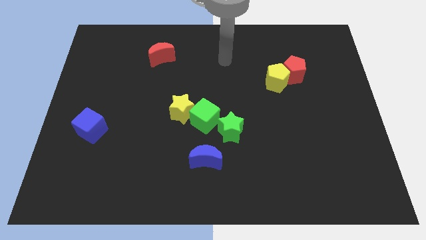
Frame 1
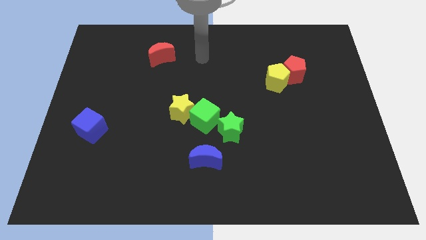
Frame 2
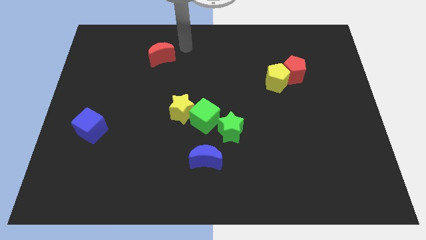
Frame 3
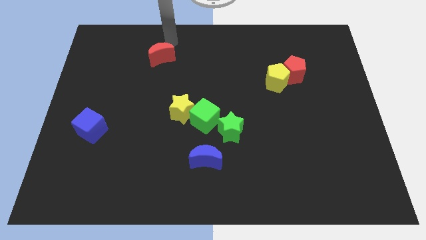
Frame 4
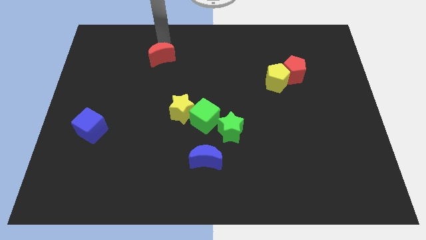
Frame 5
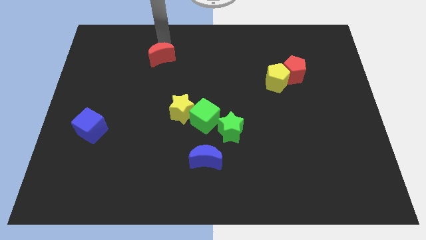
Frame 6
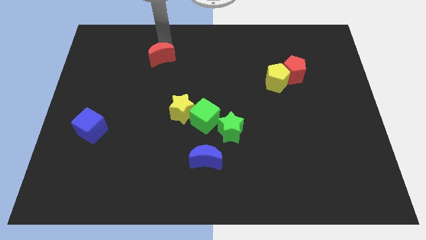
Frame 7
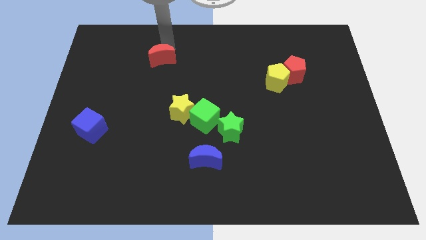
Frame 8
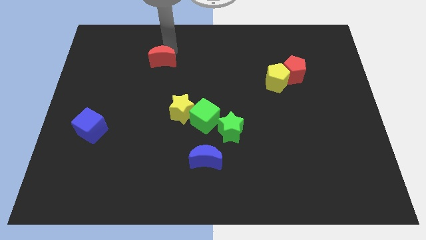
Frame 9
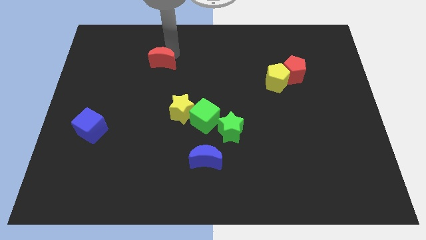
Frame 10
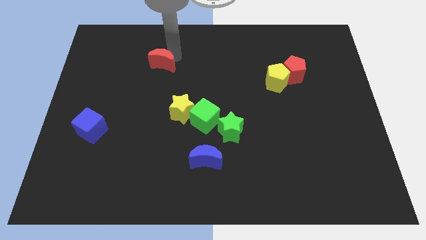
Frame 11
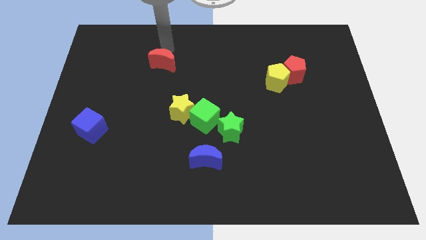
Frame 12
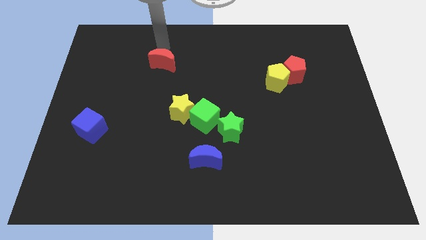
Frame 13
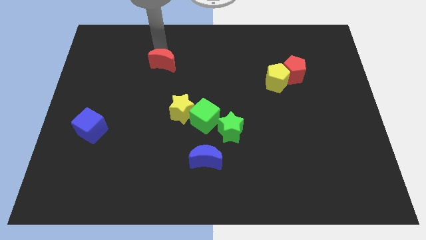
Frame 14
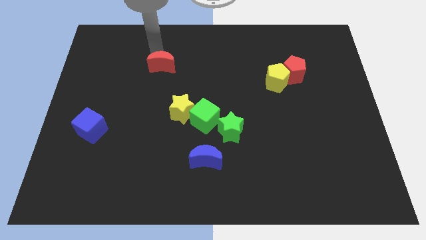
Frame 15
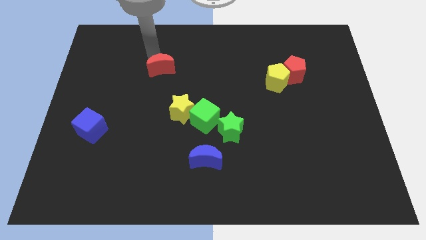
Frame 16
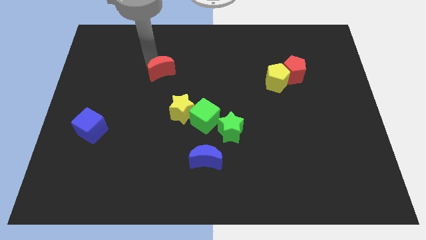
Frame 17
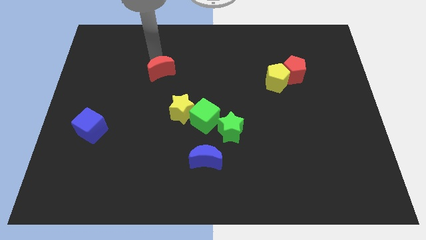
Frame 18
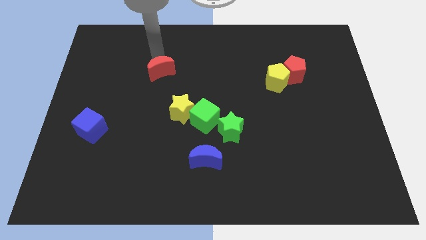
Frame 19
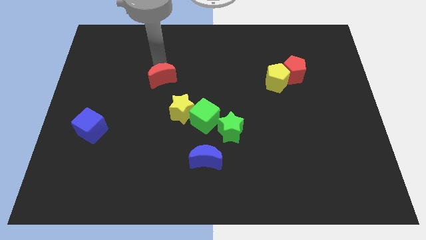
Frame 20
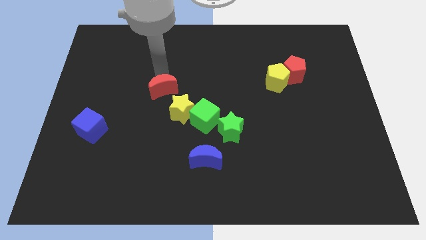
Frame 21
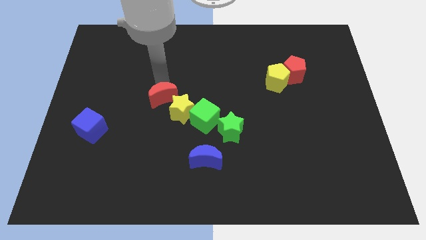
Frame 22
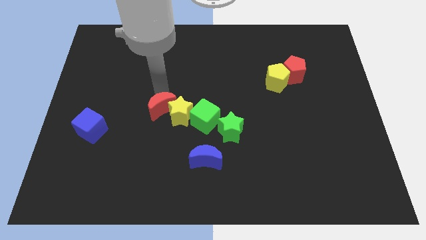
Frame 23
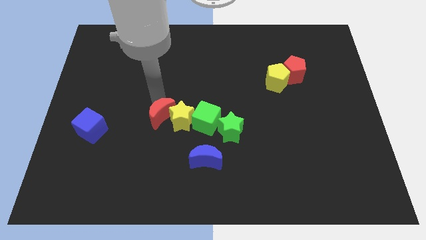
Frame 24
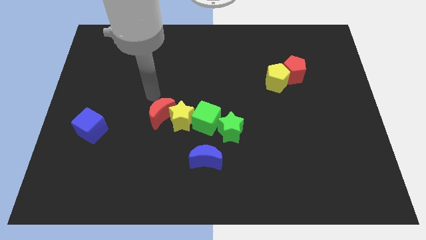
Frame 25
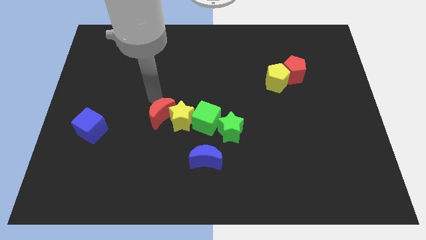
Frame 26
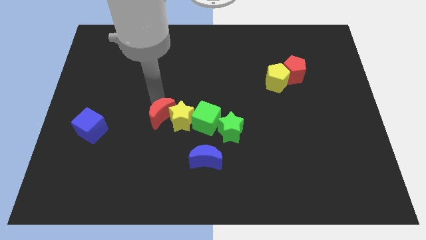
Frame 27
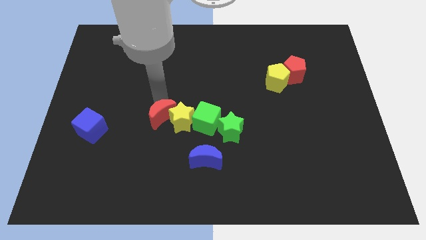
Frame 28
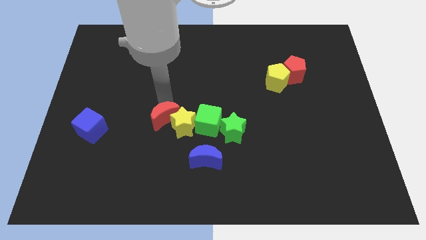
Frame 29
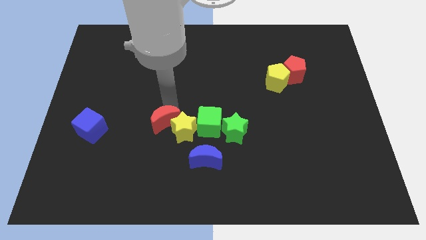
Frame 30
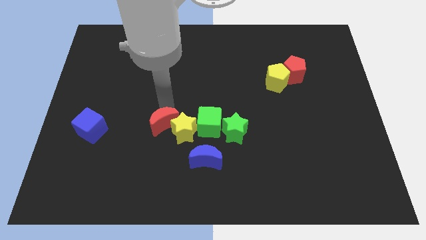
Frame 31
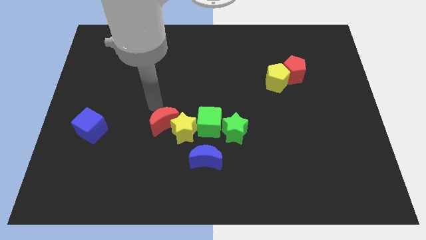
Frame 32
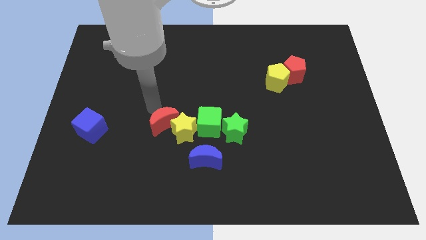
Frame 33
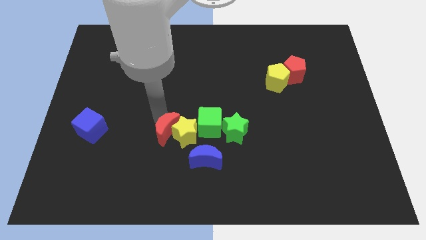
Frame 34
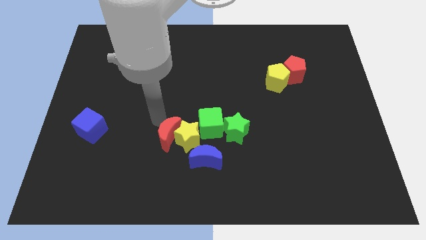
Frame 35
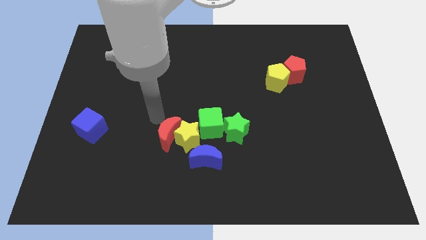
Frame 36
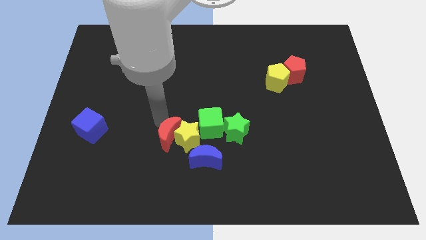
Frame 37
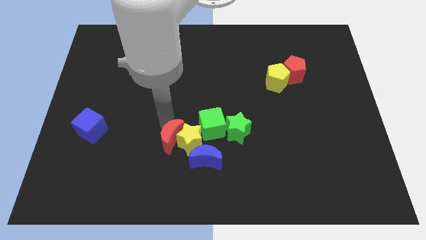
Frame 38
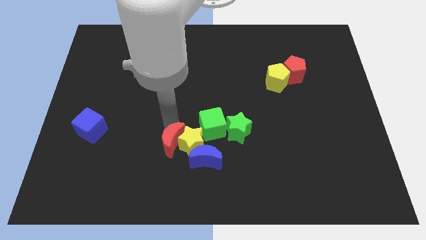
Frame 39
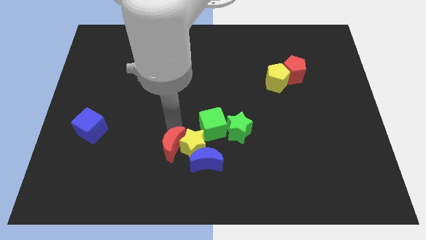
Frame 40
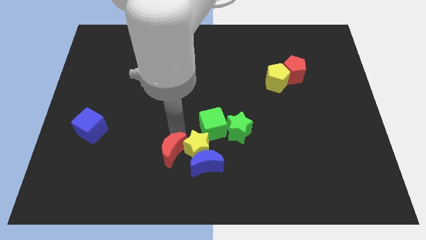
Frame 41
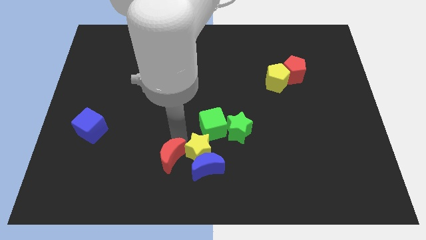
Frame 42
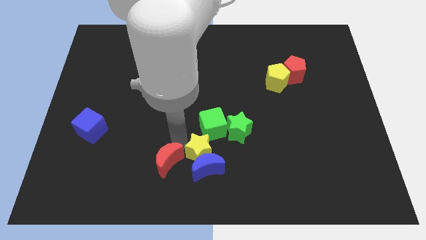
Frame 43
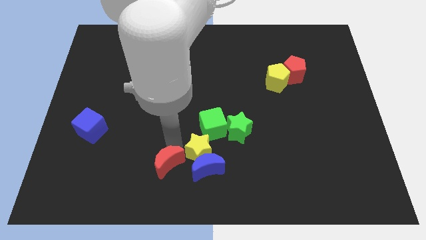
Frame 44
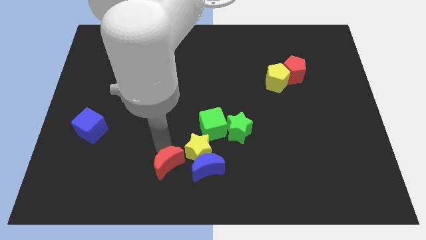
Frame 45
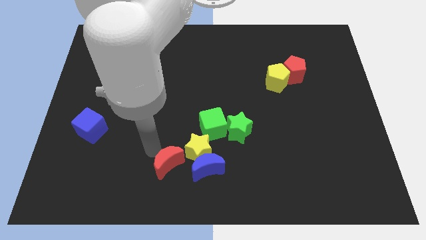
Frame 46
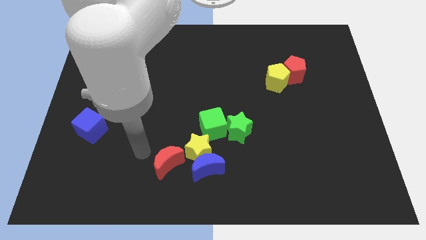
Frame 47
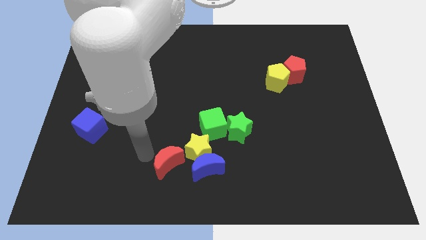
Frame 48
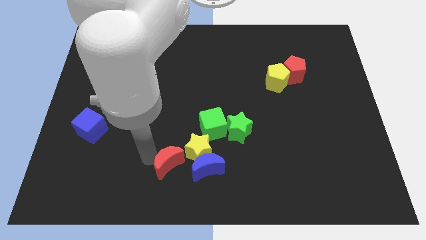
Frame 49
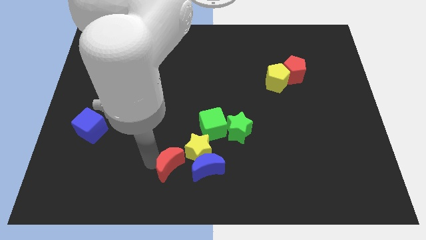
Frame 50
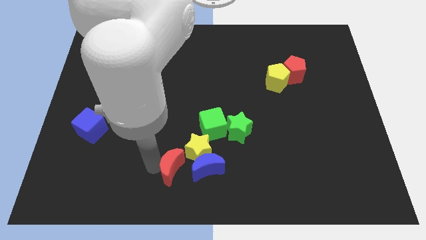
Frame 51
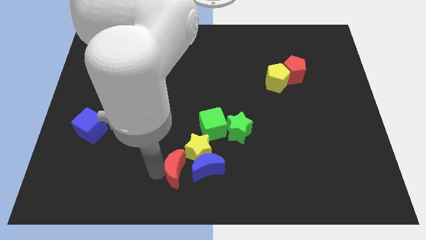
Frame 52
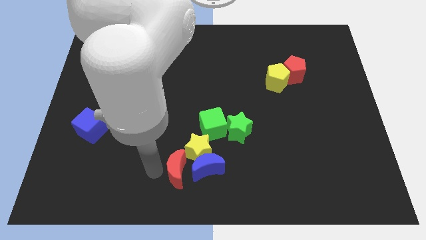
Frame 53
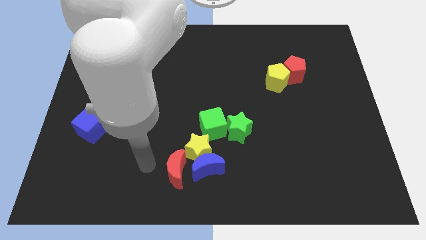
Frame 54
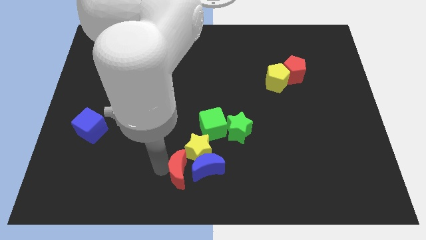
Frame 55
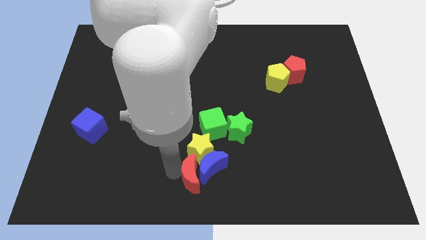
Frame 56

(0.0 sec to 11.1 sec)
push the red moon below the green cube

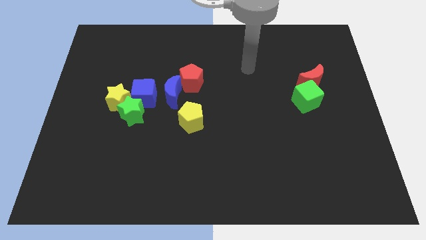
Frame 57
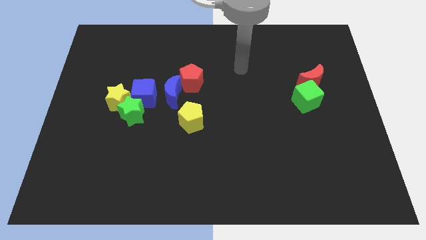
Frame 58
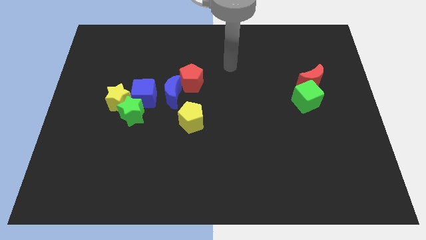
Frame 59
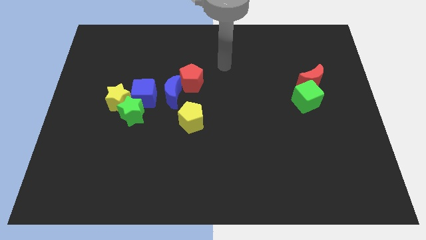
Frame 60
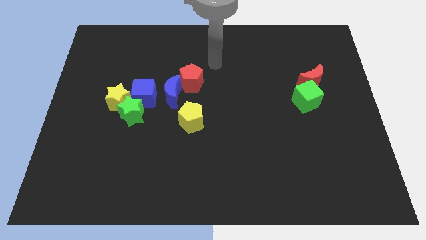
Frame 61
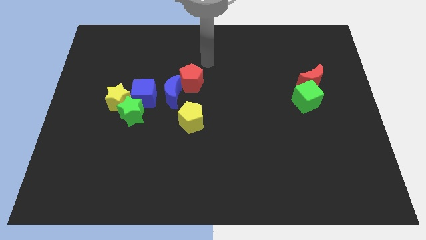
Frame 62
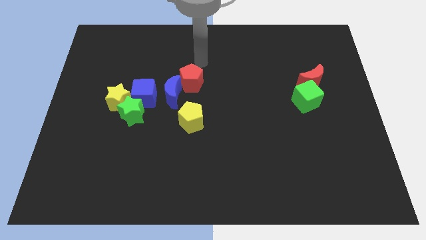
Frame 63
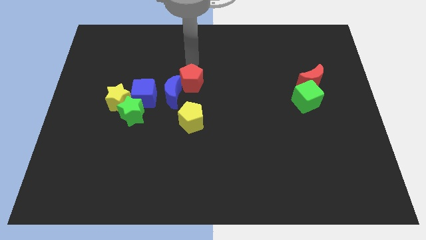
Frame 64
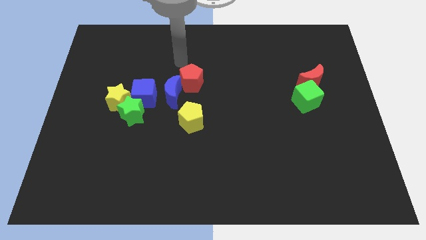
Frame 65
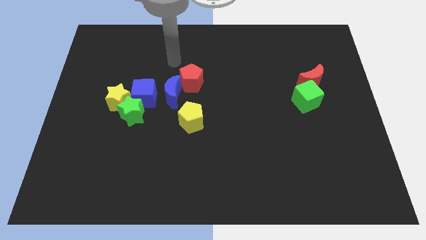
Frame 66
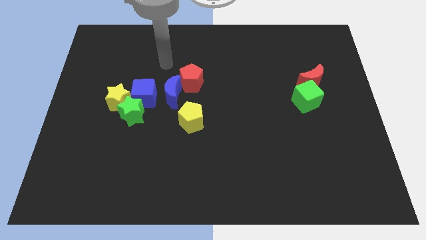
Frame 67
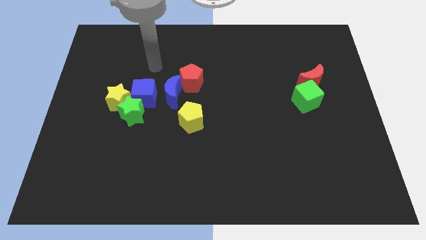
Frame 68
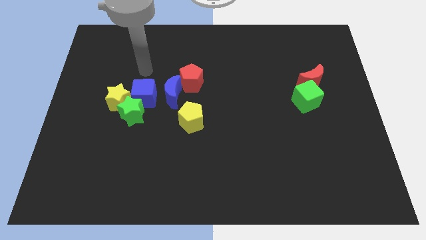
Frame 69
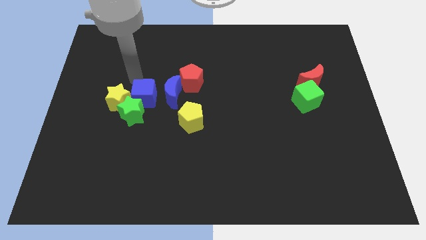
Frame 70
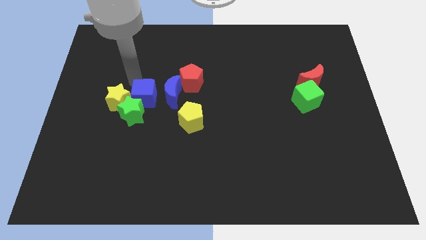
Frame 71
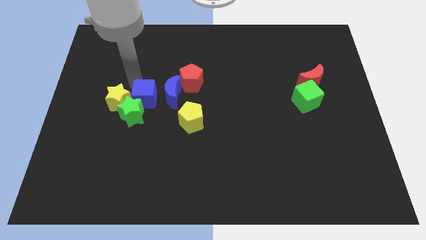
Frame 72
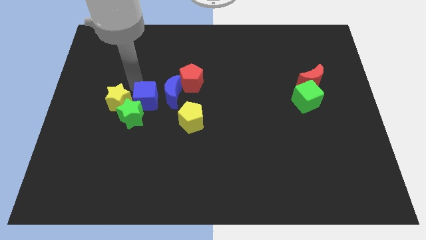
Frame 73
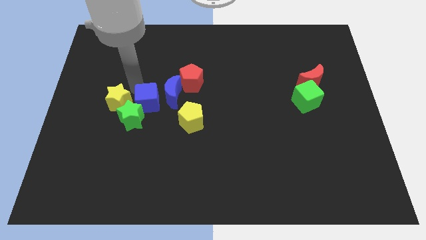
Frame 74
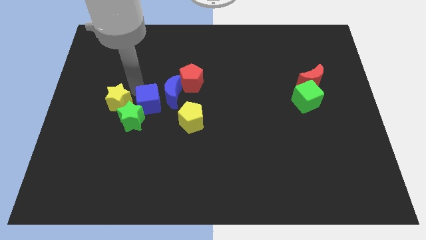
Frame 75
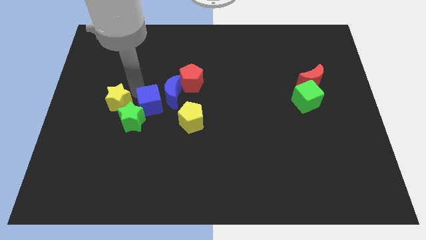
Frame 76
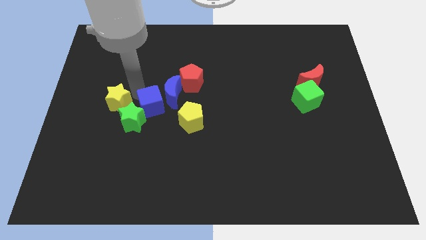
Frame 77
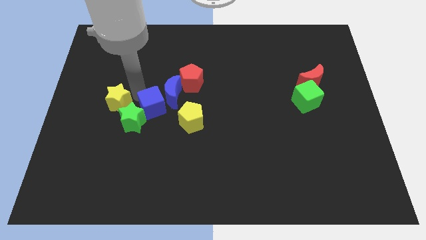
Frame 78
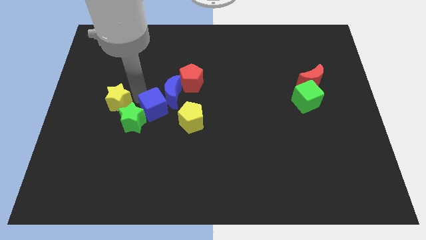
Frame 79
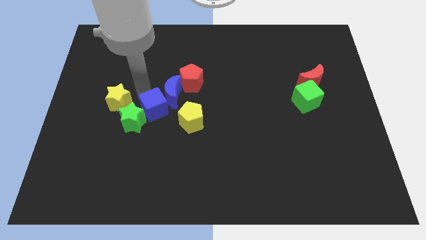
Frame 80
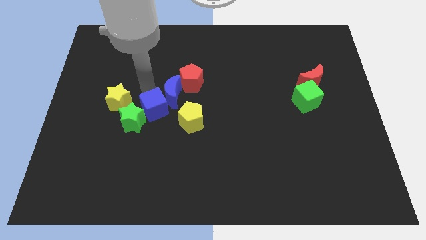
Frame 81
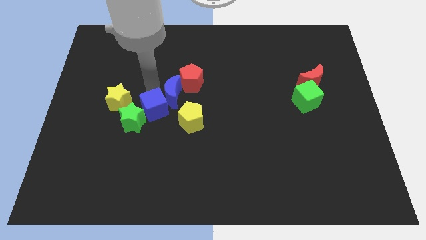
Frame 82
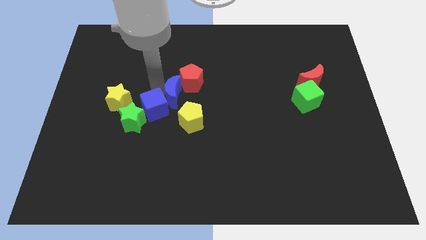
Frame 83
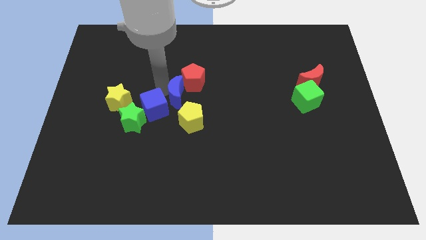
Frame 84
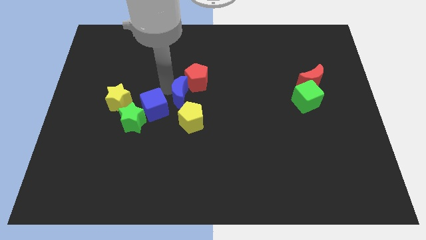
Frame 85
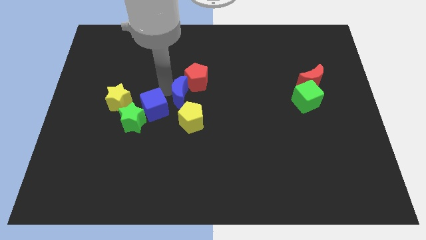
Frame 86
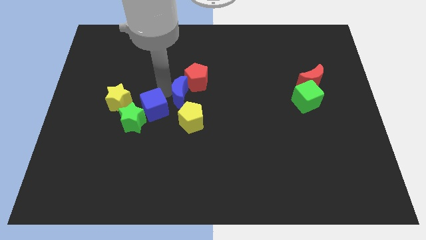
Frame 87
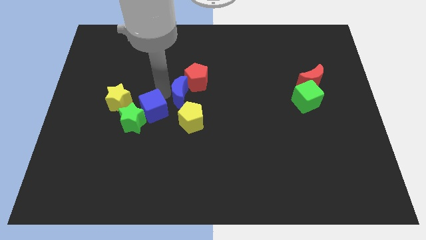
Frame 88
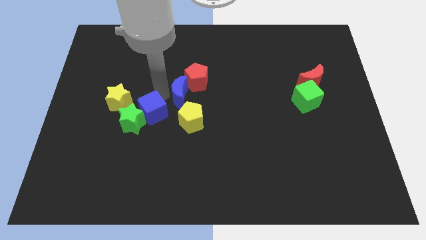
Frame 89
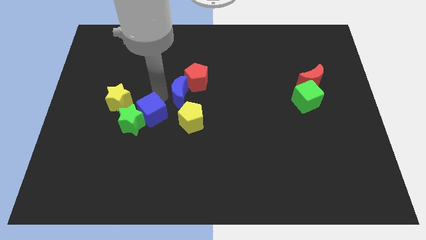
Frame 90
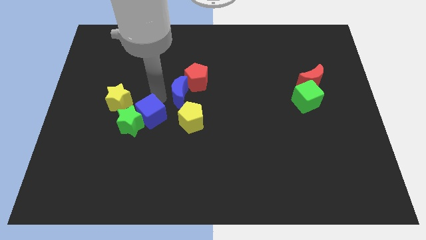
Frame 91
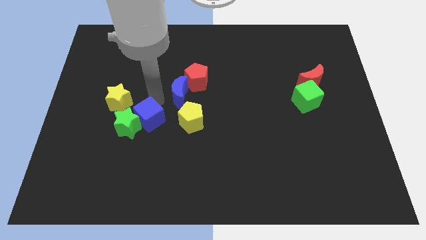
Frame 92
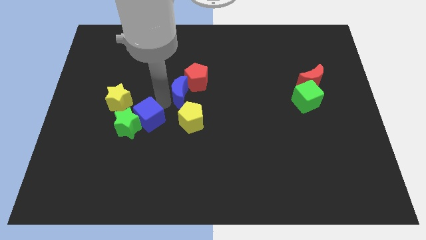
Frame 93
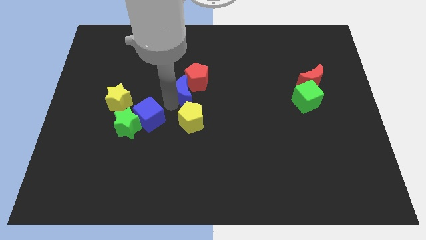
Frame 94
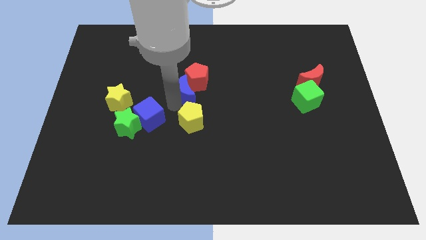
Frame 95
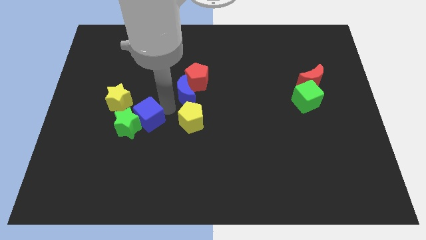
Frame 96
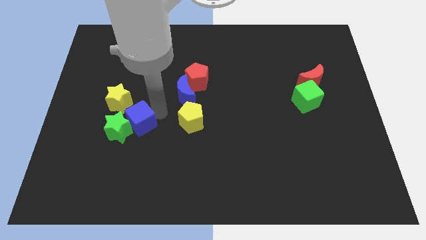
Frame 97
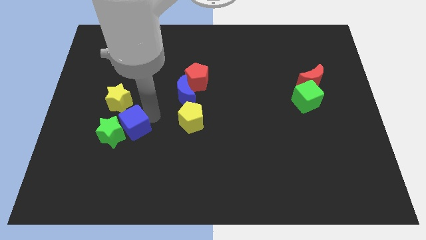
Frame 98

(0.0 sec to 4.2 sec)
move the blue cube below the yellow star
